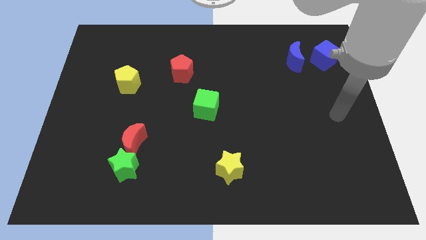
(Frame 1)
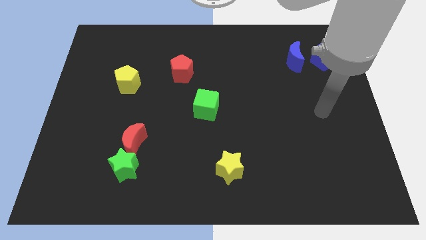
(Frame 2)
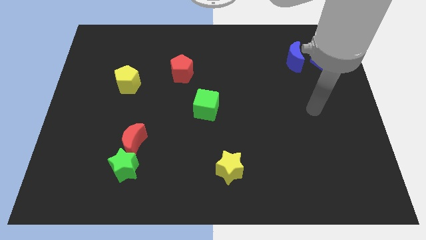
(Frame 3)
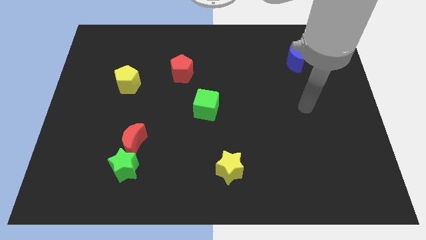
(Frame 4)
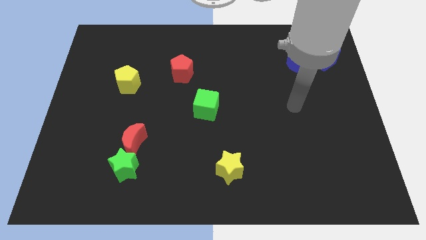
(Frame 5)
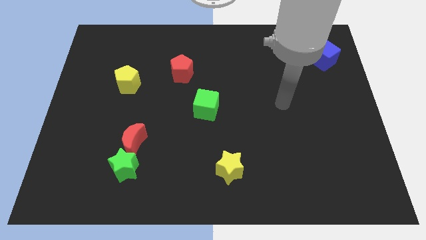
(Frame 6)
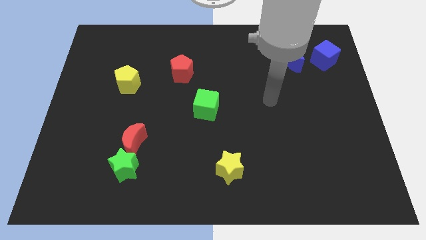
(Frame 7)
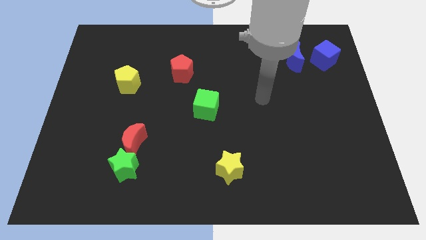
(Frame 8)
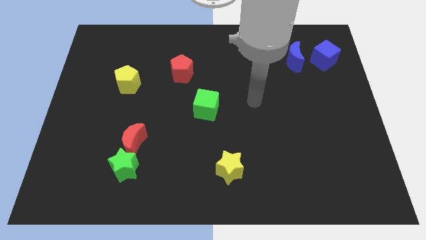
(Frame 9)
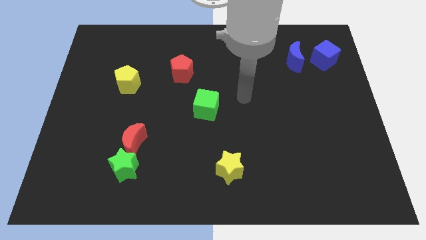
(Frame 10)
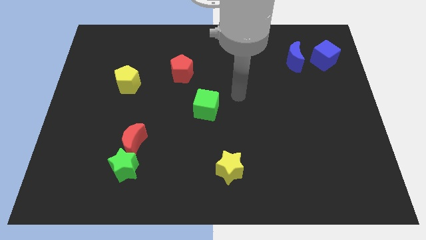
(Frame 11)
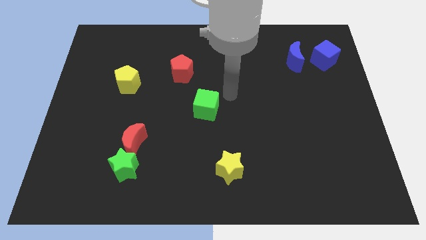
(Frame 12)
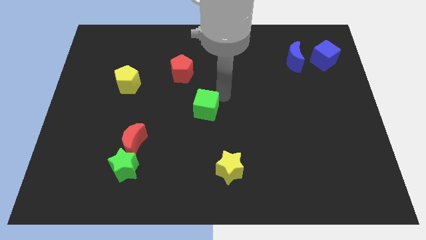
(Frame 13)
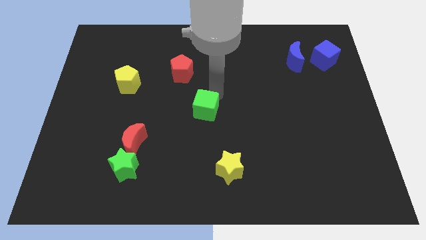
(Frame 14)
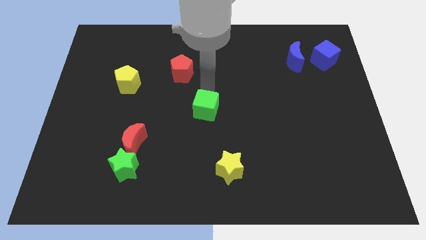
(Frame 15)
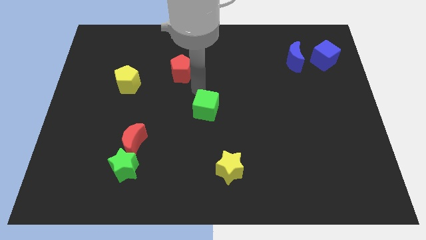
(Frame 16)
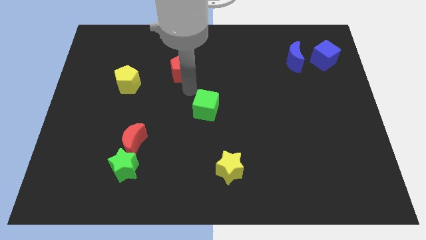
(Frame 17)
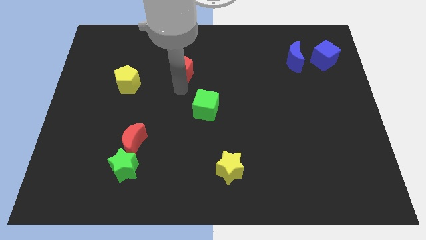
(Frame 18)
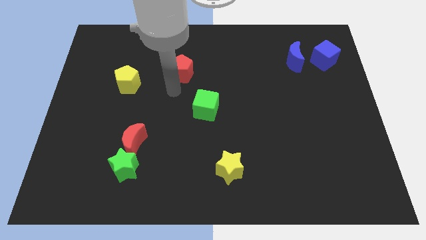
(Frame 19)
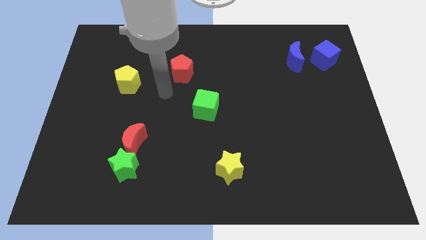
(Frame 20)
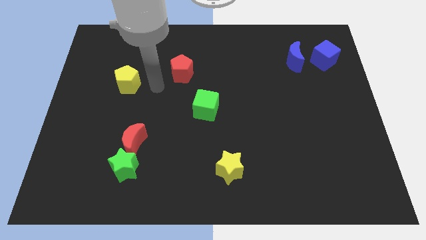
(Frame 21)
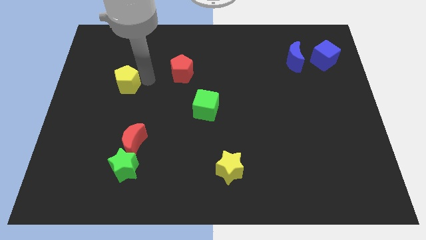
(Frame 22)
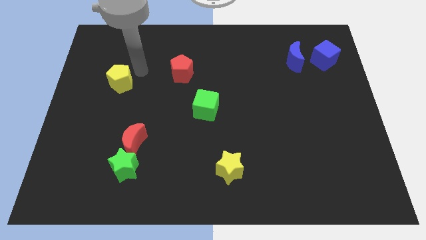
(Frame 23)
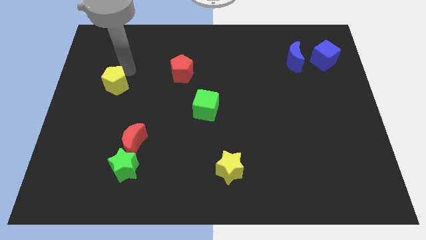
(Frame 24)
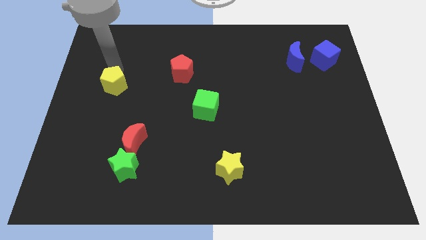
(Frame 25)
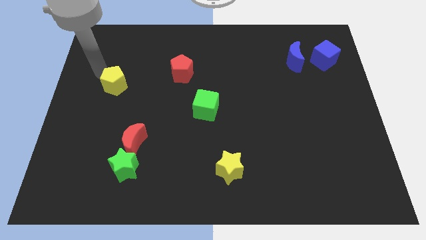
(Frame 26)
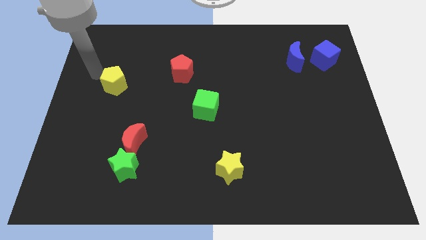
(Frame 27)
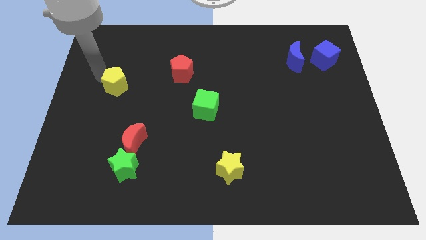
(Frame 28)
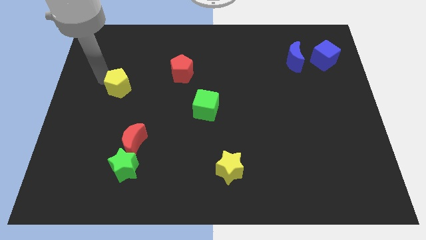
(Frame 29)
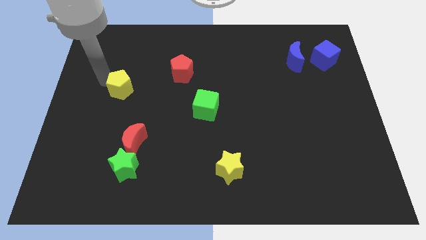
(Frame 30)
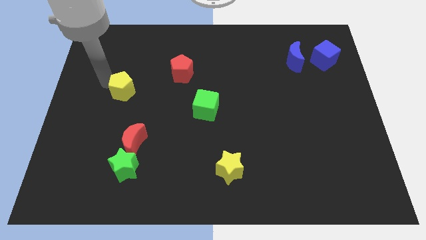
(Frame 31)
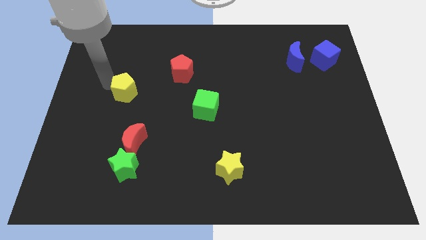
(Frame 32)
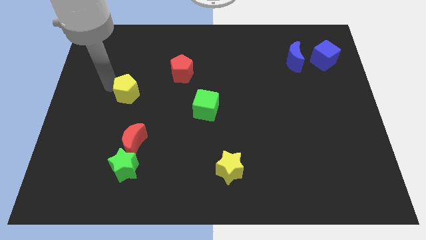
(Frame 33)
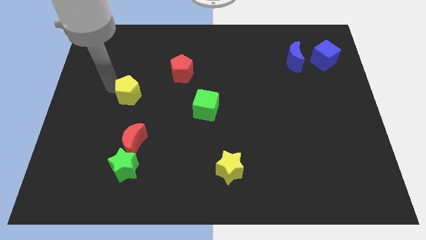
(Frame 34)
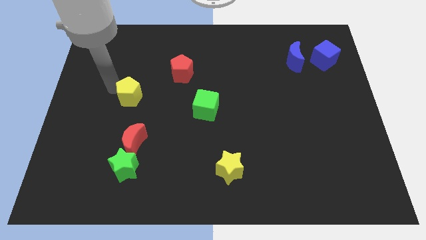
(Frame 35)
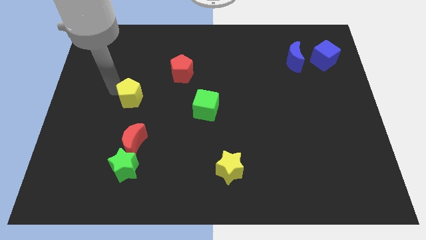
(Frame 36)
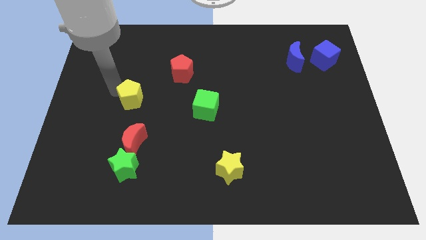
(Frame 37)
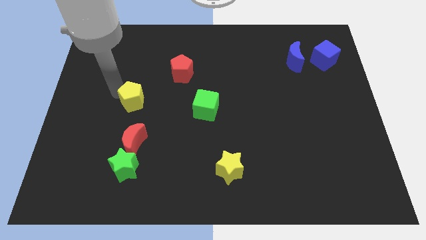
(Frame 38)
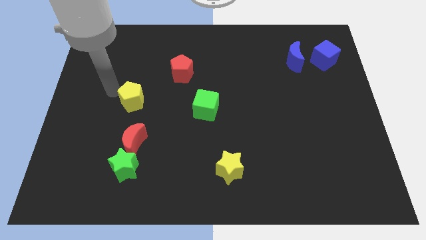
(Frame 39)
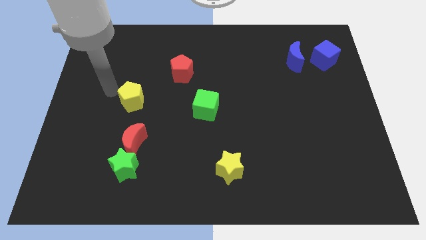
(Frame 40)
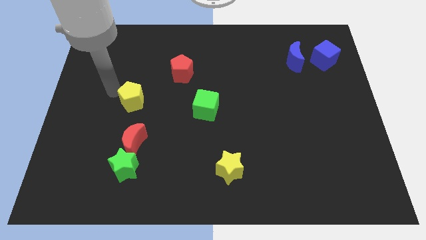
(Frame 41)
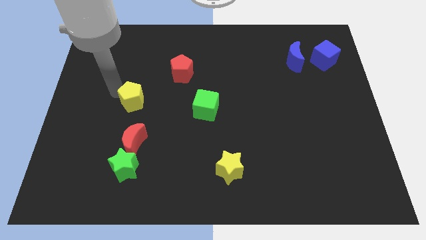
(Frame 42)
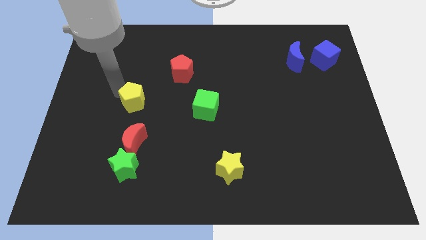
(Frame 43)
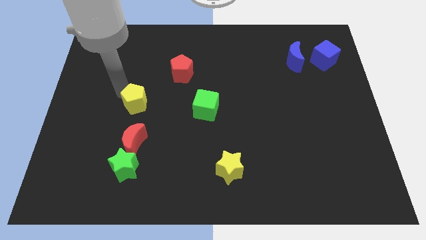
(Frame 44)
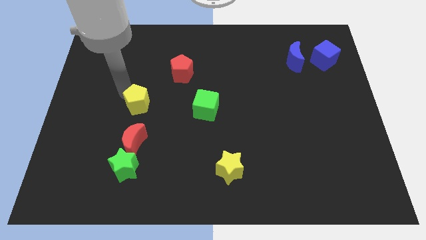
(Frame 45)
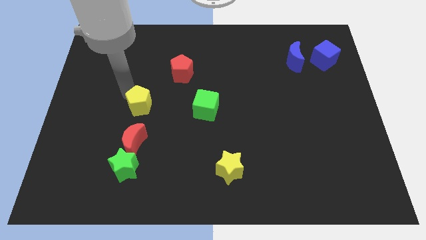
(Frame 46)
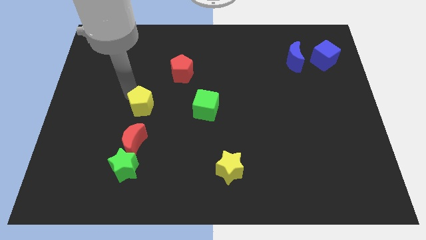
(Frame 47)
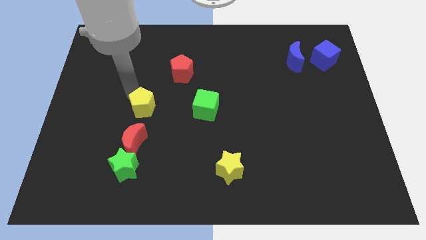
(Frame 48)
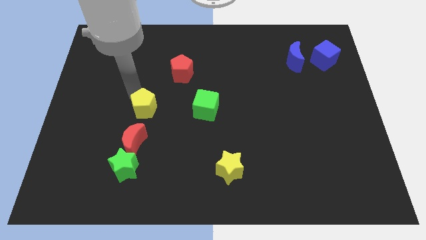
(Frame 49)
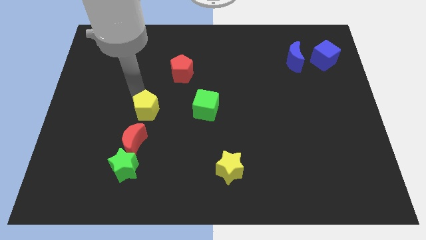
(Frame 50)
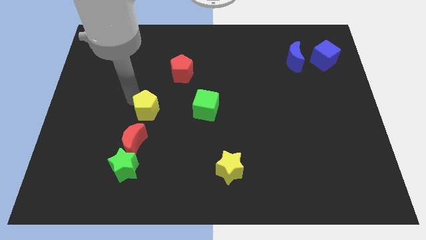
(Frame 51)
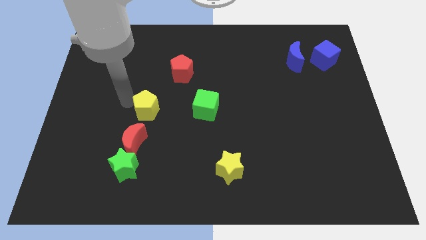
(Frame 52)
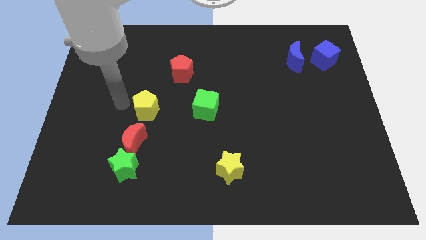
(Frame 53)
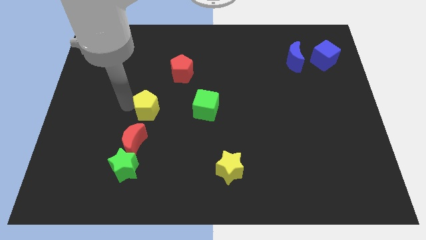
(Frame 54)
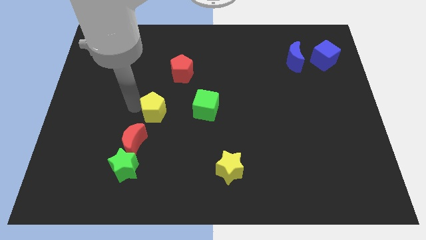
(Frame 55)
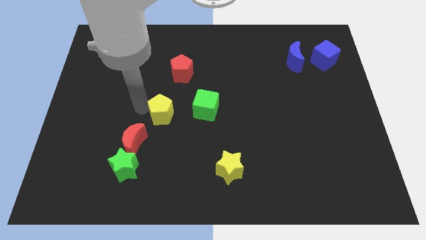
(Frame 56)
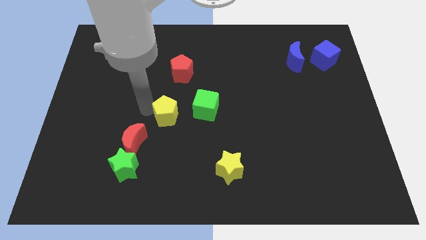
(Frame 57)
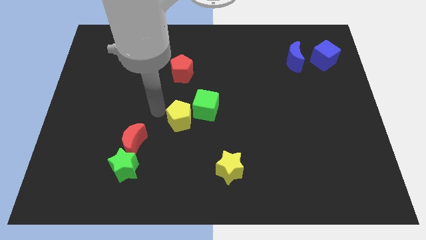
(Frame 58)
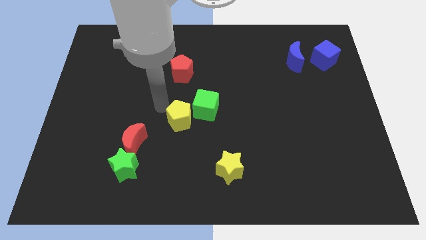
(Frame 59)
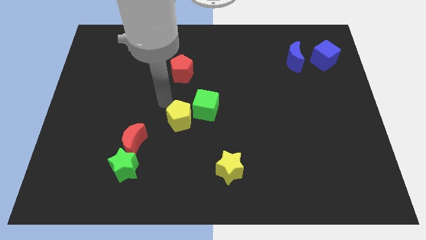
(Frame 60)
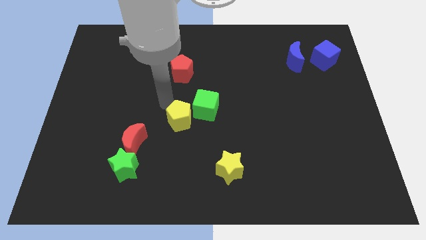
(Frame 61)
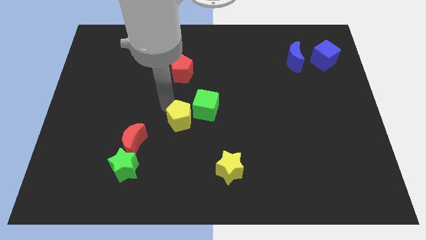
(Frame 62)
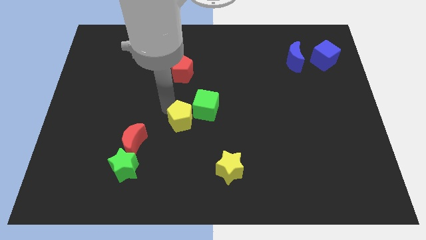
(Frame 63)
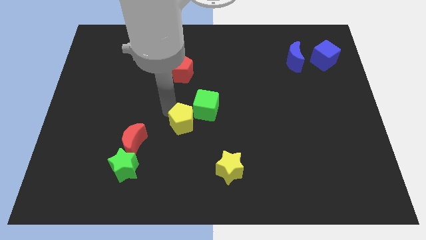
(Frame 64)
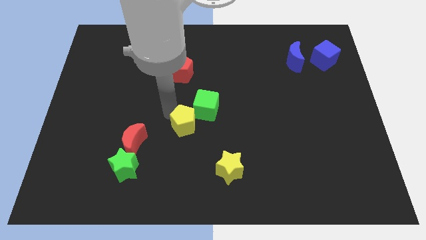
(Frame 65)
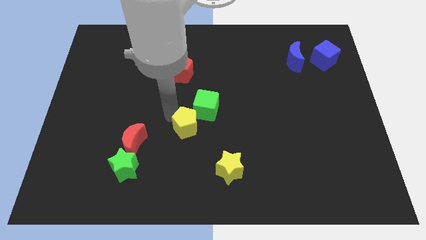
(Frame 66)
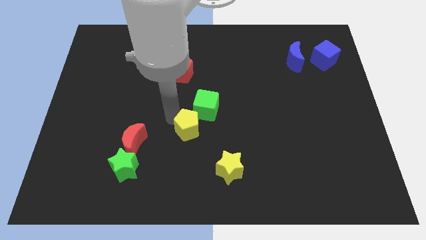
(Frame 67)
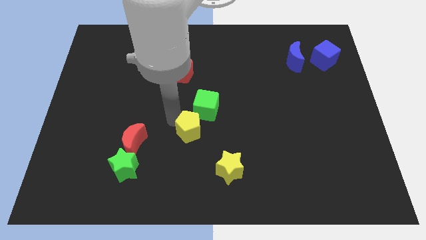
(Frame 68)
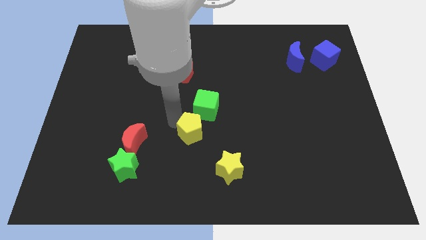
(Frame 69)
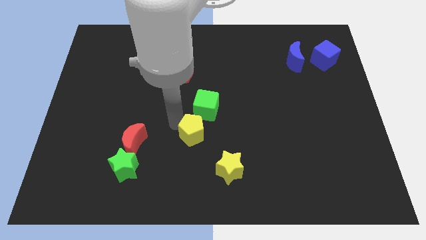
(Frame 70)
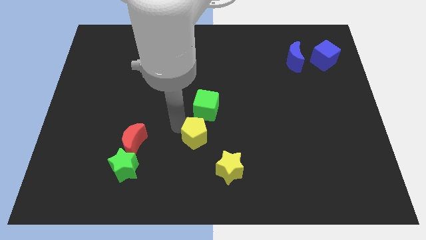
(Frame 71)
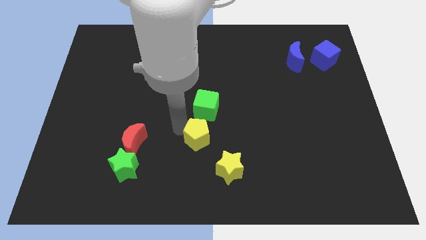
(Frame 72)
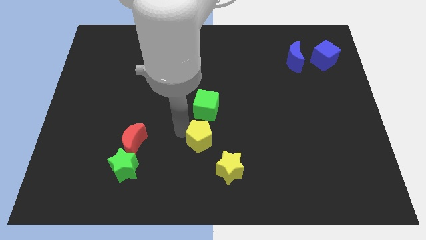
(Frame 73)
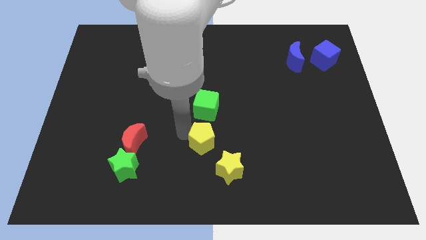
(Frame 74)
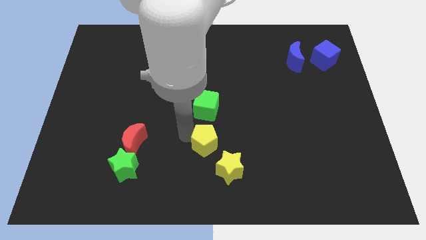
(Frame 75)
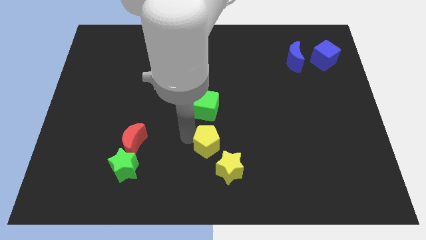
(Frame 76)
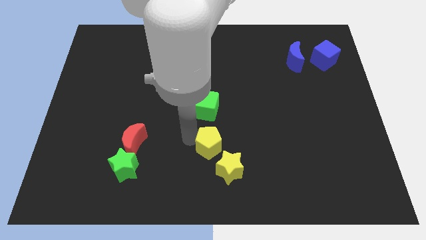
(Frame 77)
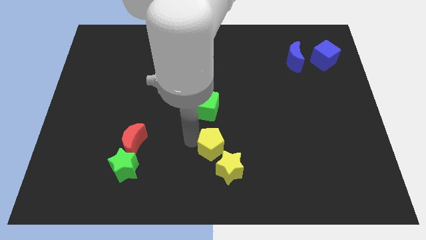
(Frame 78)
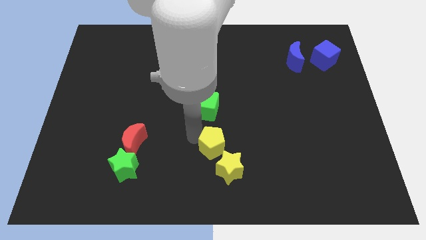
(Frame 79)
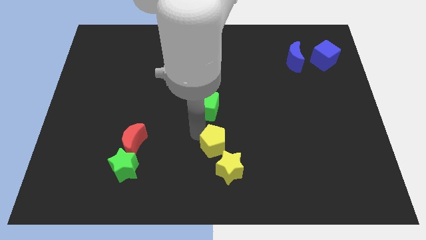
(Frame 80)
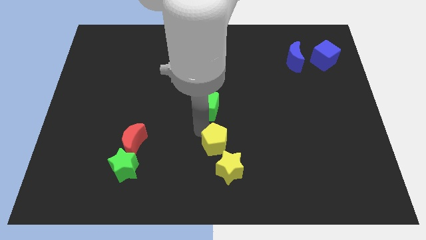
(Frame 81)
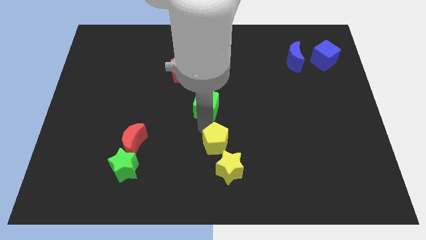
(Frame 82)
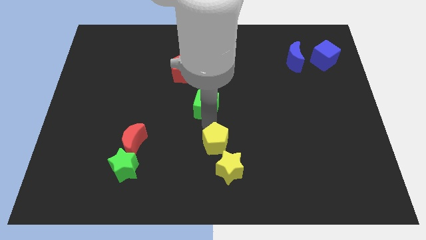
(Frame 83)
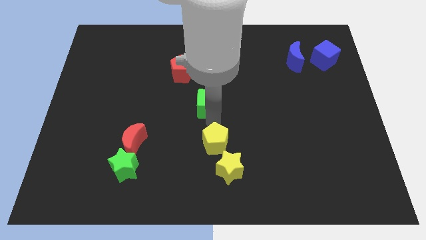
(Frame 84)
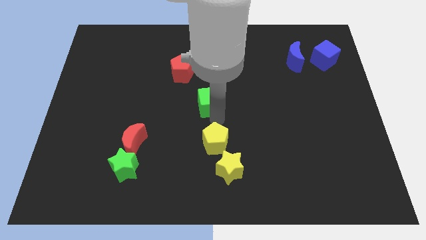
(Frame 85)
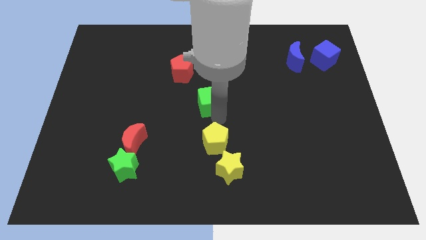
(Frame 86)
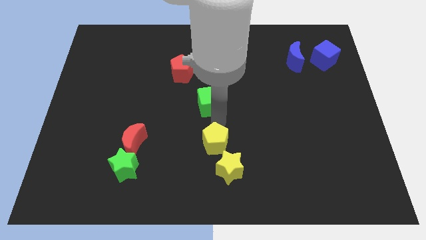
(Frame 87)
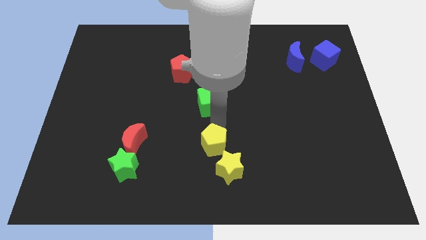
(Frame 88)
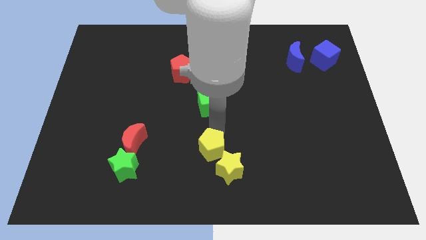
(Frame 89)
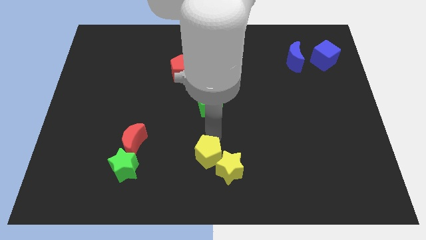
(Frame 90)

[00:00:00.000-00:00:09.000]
move the yellow pentagon to the yellow star
